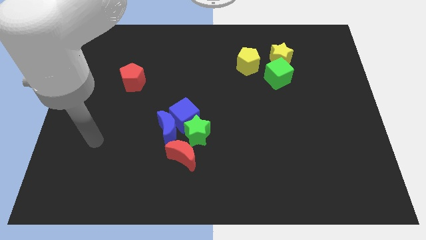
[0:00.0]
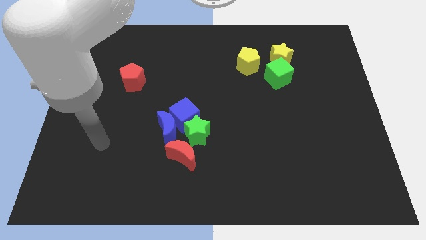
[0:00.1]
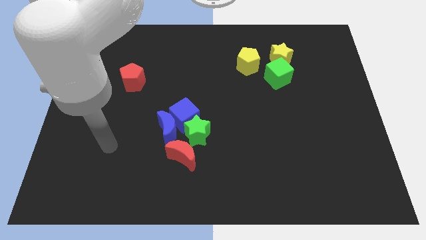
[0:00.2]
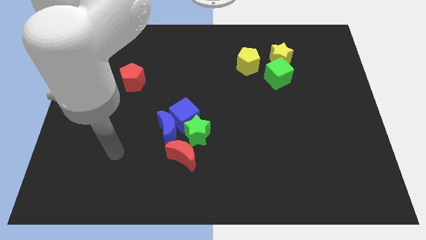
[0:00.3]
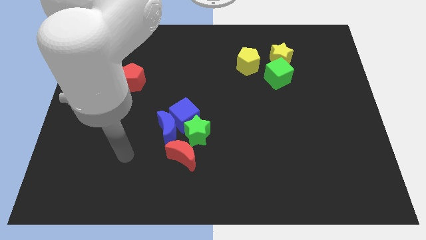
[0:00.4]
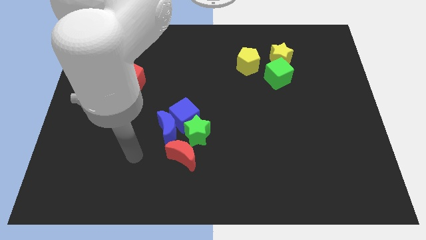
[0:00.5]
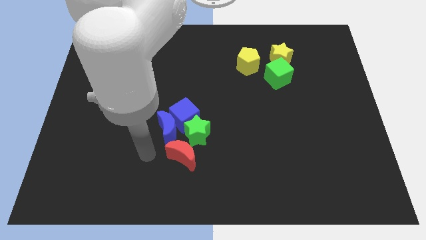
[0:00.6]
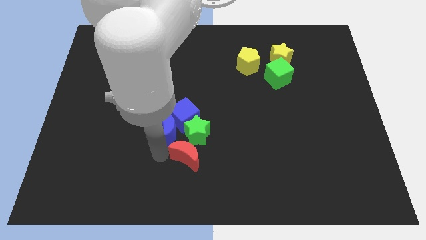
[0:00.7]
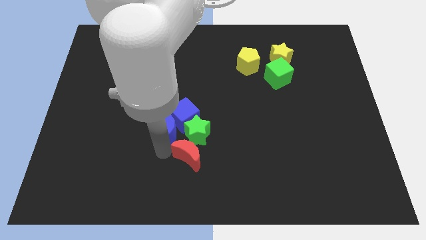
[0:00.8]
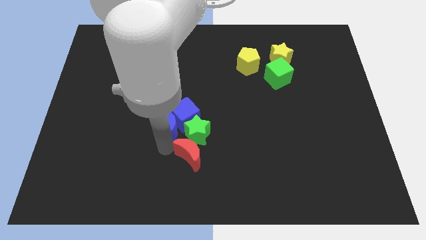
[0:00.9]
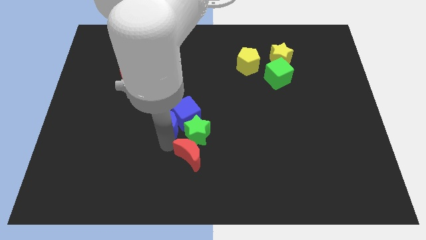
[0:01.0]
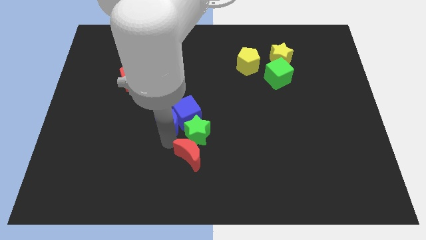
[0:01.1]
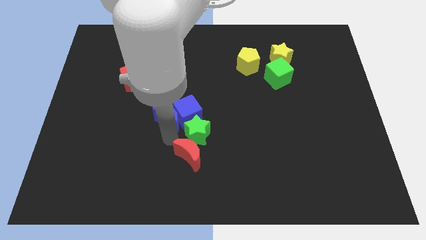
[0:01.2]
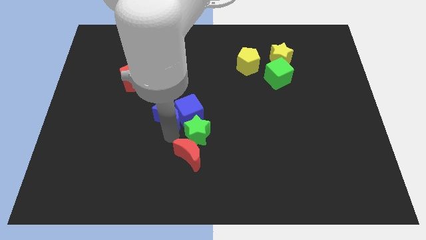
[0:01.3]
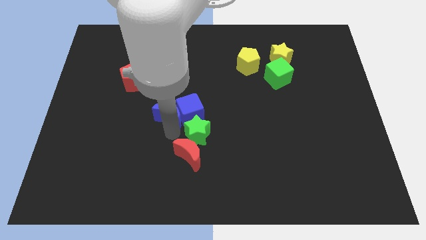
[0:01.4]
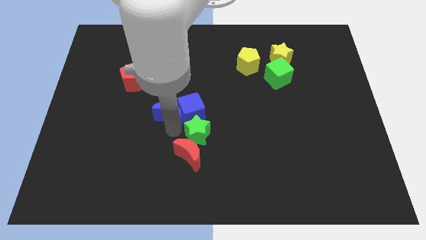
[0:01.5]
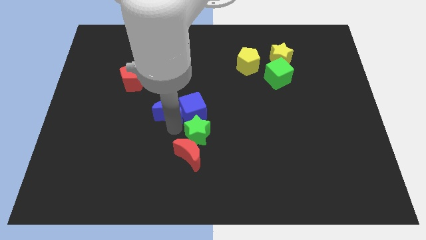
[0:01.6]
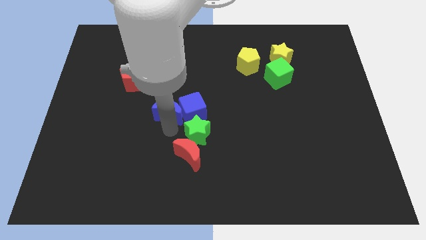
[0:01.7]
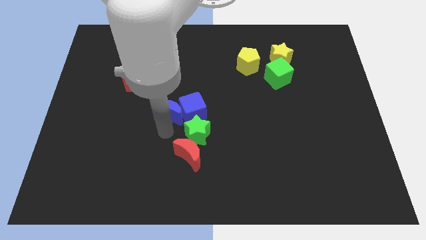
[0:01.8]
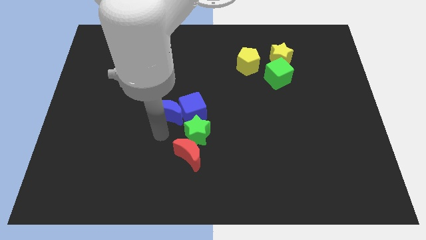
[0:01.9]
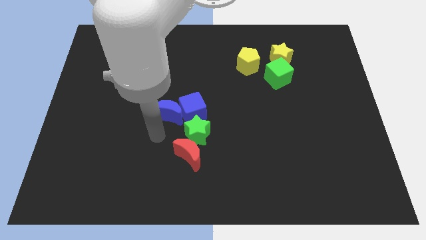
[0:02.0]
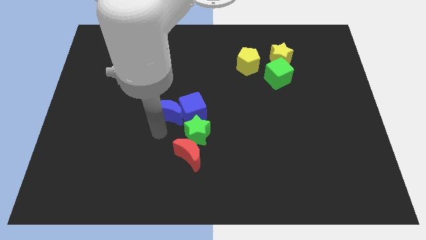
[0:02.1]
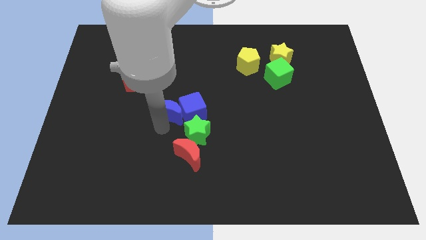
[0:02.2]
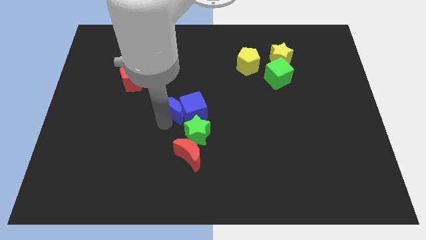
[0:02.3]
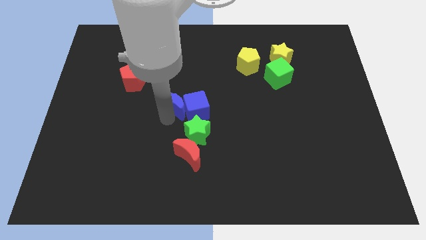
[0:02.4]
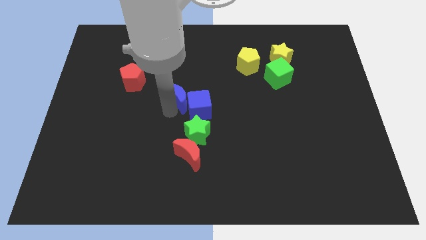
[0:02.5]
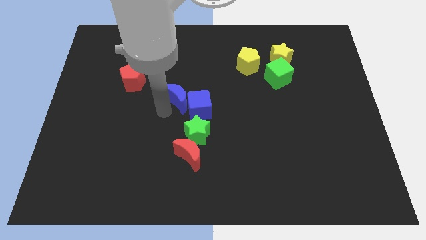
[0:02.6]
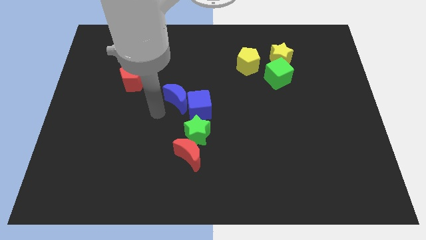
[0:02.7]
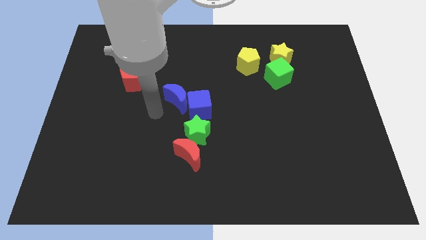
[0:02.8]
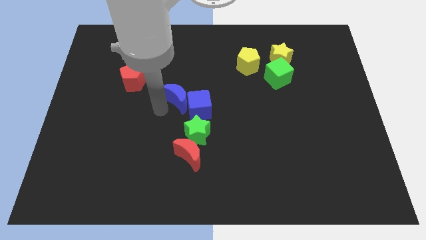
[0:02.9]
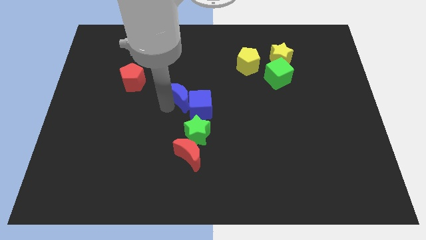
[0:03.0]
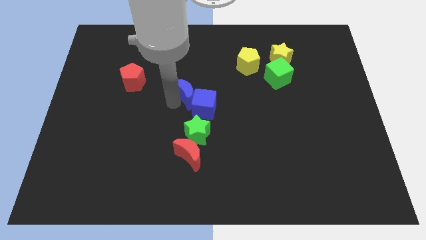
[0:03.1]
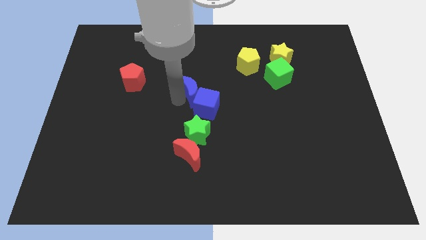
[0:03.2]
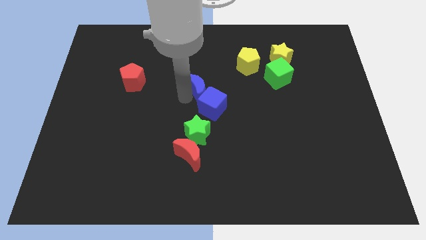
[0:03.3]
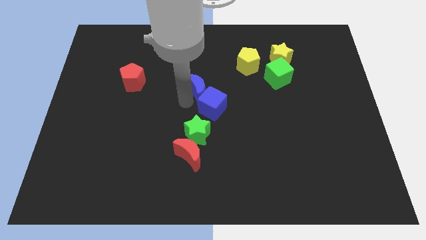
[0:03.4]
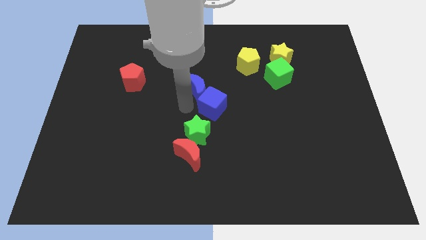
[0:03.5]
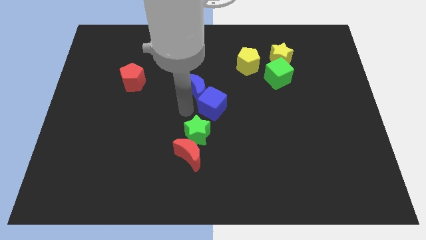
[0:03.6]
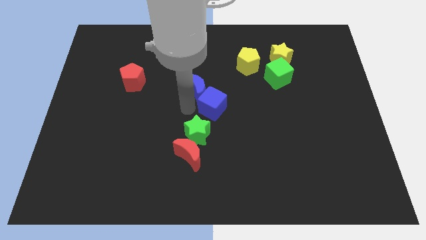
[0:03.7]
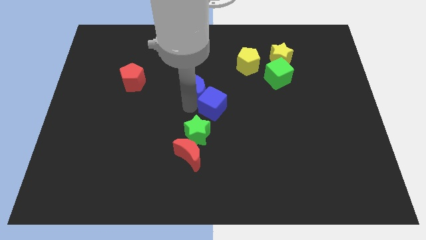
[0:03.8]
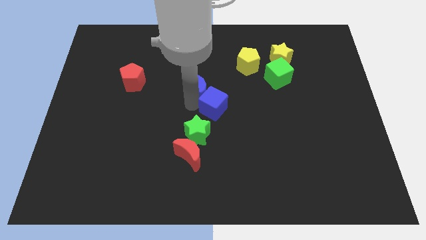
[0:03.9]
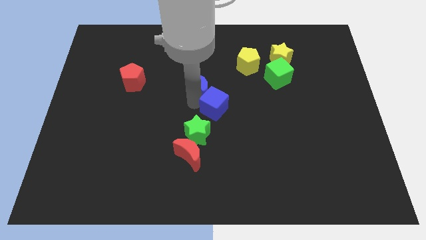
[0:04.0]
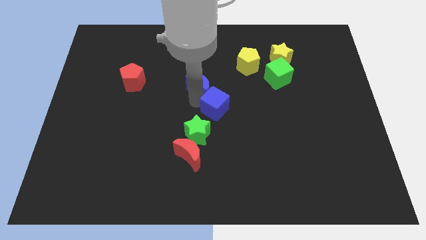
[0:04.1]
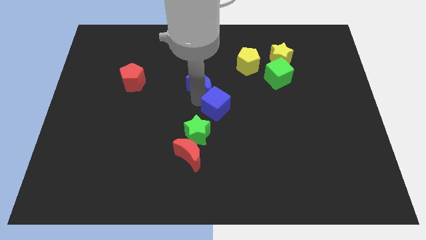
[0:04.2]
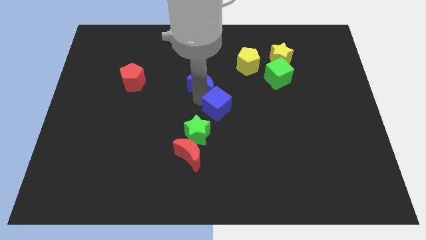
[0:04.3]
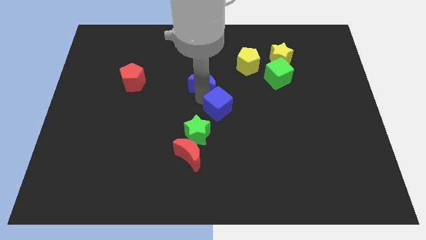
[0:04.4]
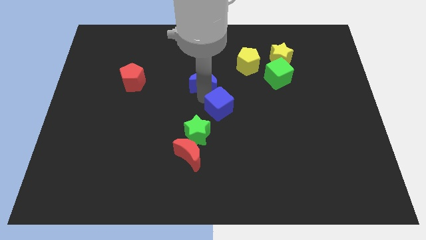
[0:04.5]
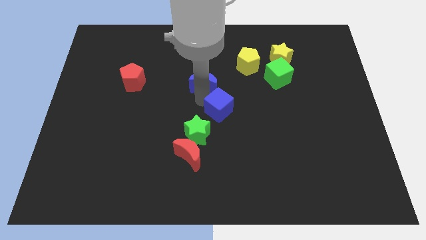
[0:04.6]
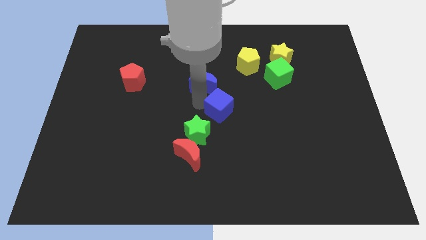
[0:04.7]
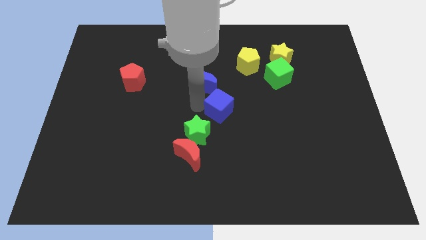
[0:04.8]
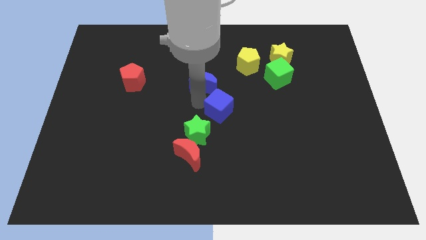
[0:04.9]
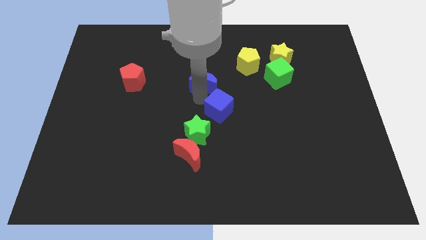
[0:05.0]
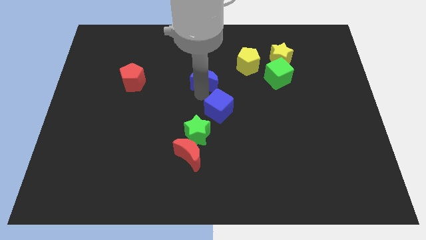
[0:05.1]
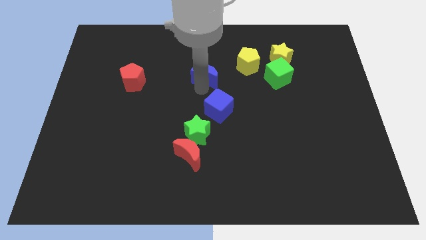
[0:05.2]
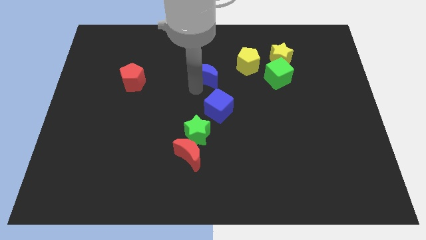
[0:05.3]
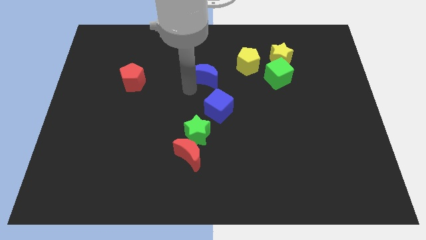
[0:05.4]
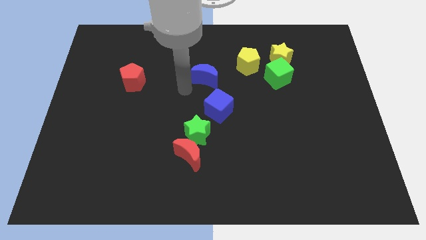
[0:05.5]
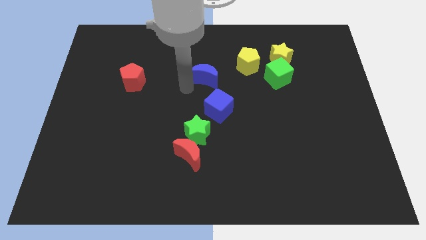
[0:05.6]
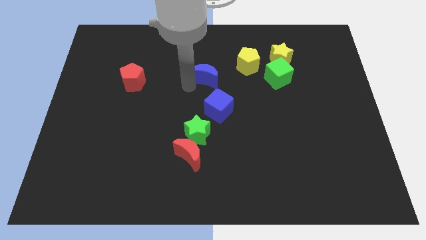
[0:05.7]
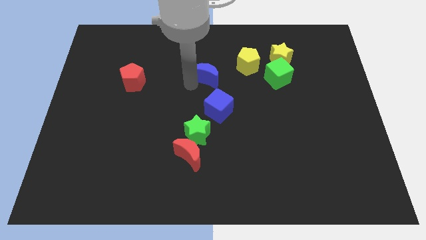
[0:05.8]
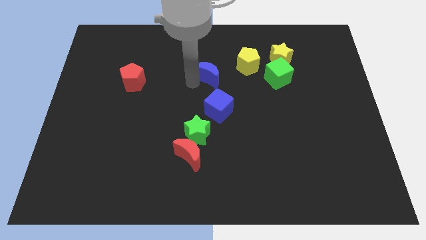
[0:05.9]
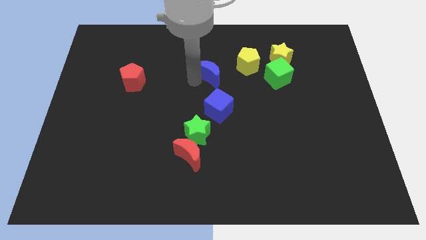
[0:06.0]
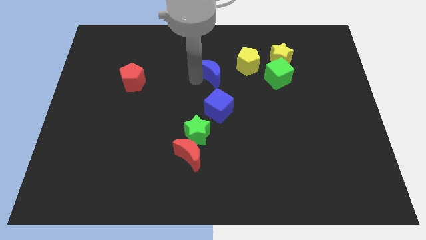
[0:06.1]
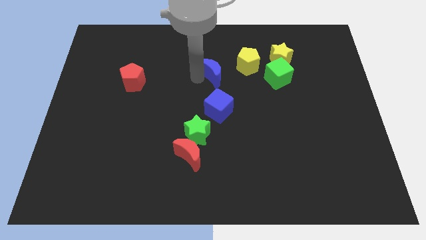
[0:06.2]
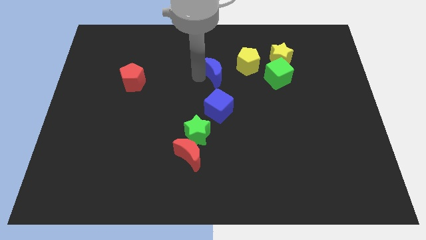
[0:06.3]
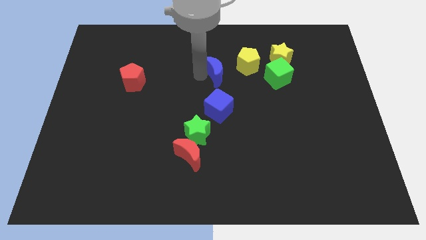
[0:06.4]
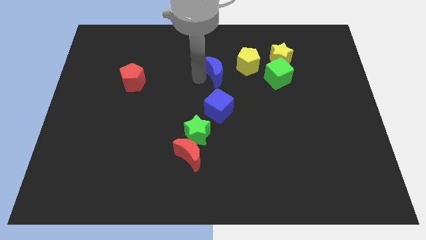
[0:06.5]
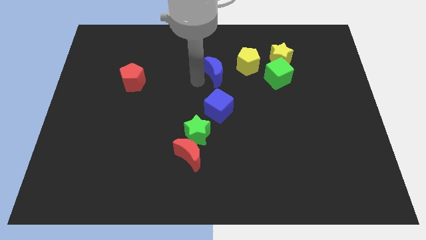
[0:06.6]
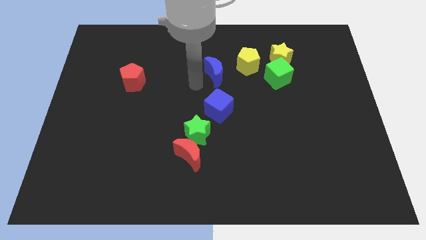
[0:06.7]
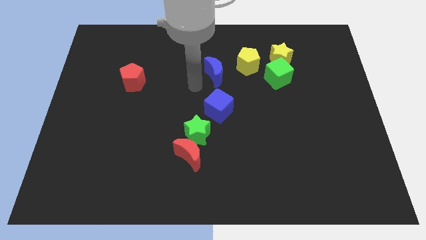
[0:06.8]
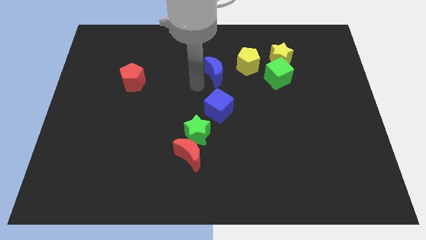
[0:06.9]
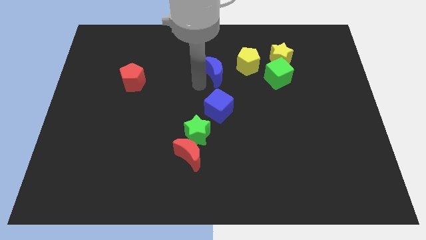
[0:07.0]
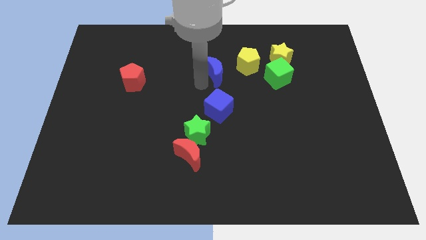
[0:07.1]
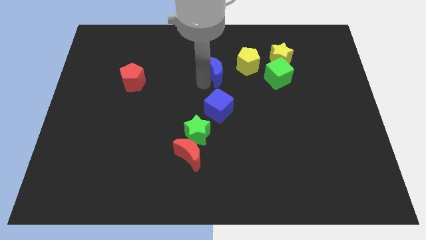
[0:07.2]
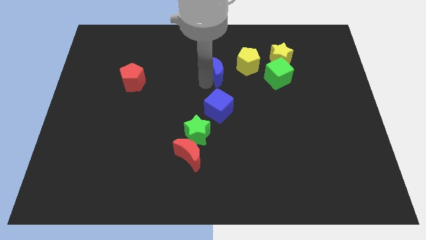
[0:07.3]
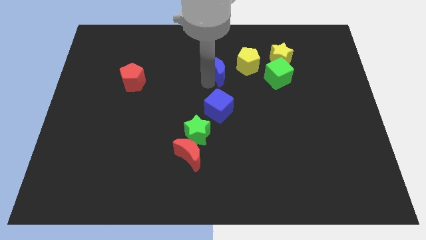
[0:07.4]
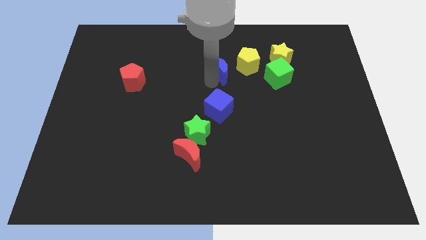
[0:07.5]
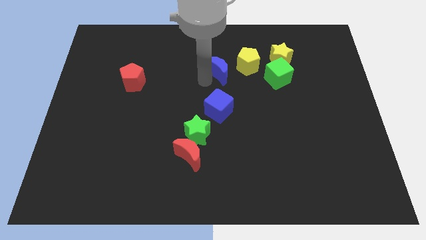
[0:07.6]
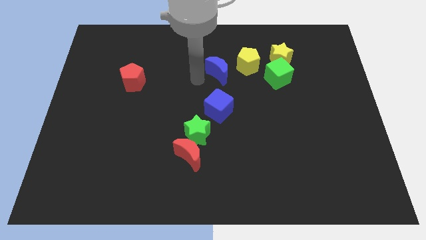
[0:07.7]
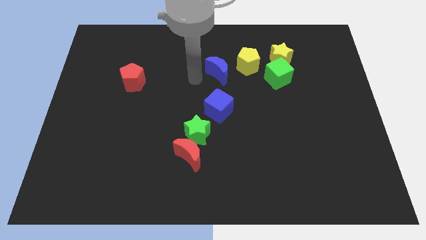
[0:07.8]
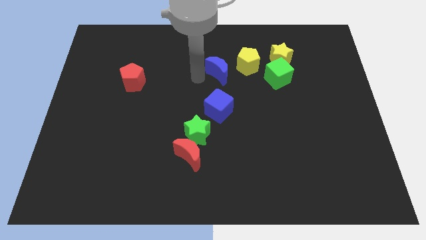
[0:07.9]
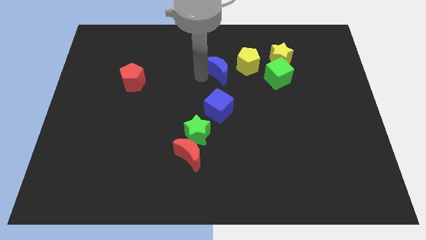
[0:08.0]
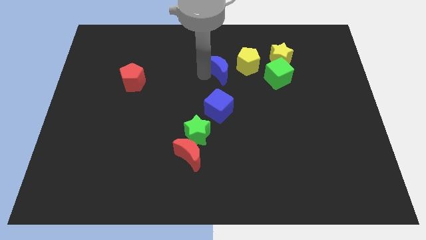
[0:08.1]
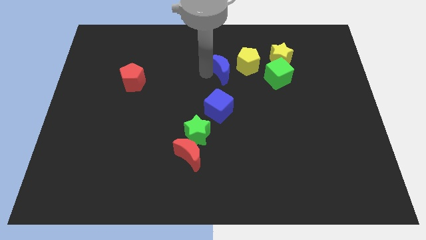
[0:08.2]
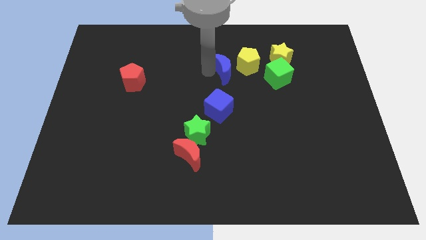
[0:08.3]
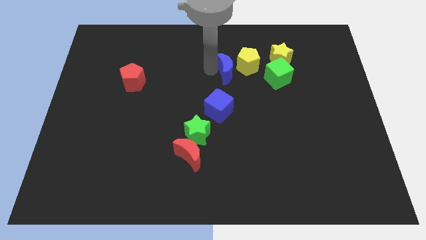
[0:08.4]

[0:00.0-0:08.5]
push the blue moon to the yellow pentagon
